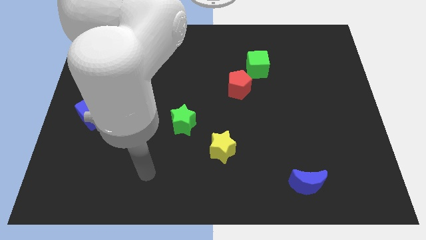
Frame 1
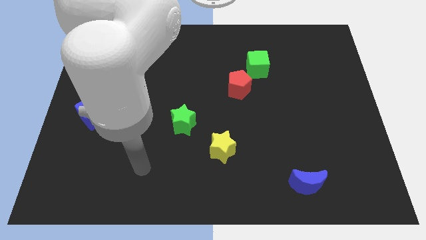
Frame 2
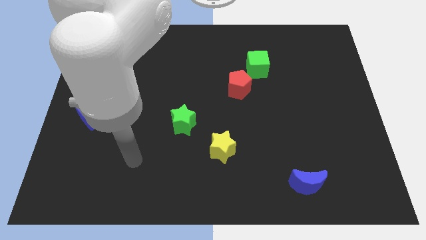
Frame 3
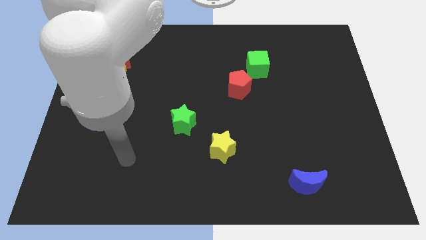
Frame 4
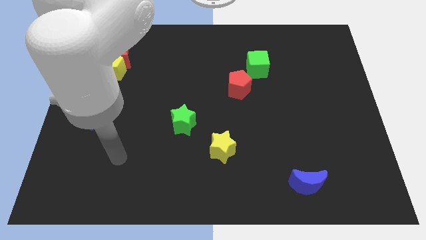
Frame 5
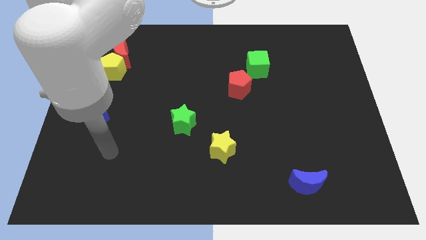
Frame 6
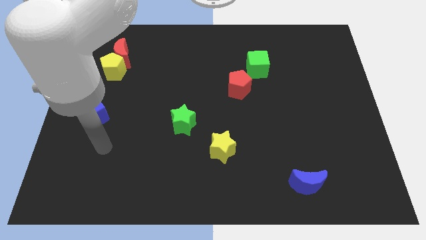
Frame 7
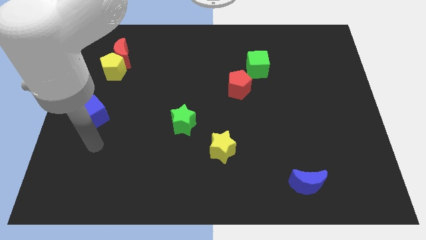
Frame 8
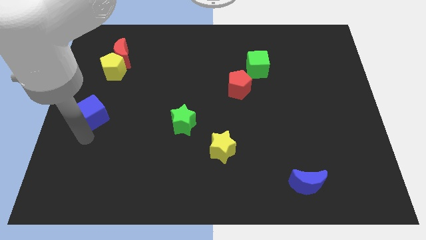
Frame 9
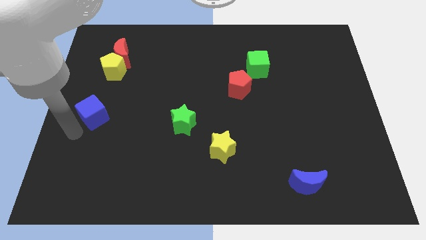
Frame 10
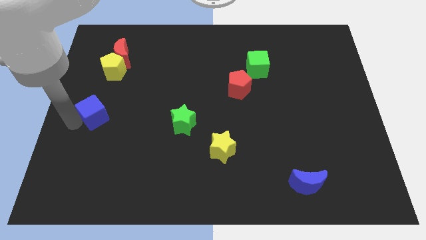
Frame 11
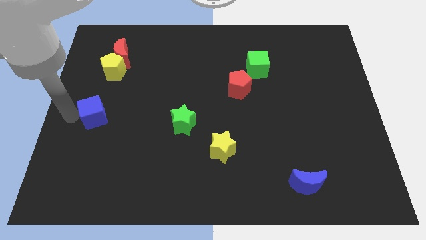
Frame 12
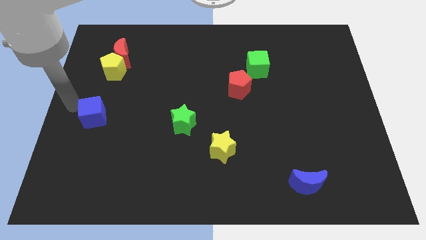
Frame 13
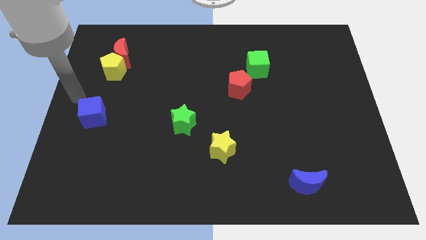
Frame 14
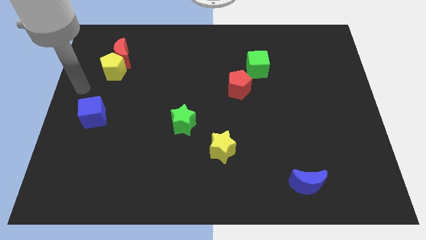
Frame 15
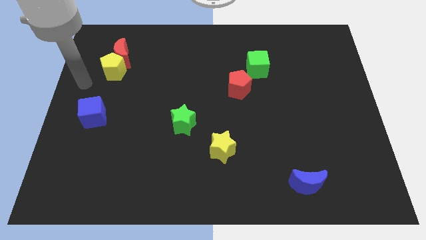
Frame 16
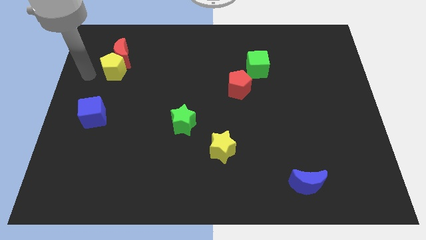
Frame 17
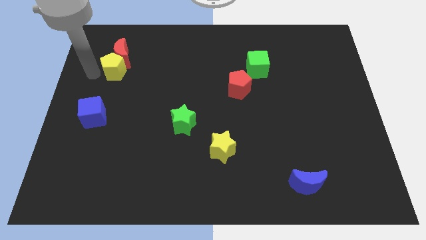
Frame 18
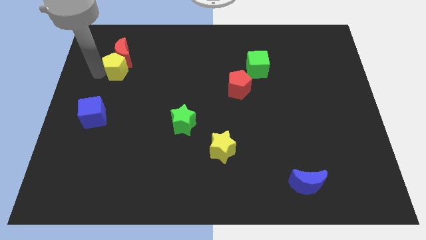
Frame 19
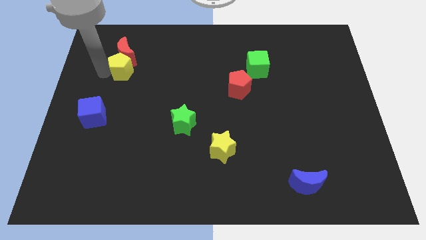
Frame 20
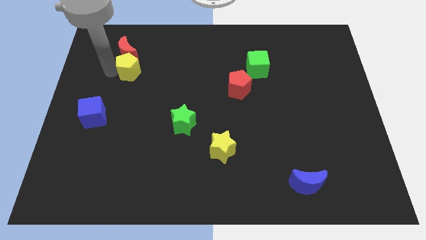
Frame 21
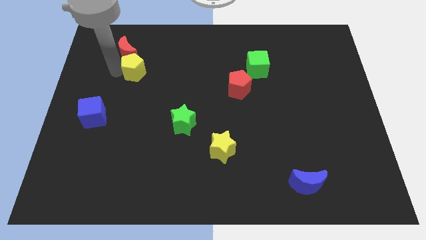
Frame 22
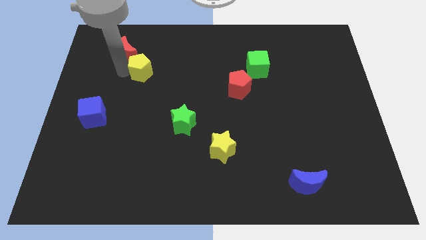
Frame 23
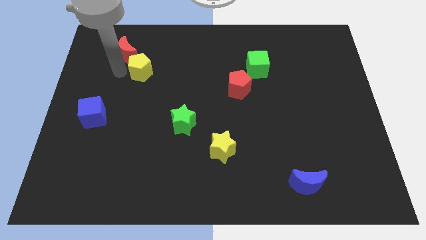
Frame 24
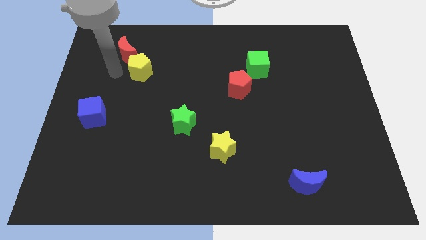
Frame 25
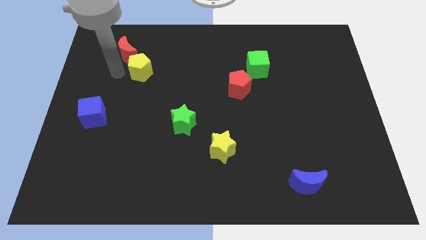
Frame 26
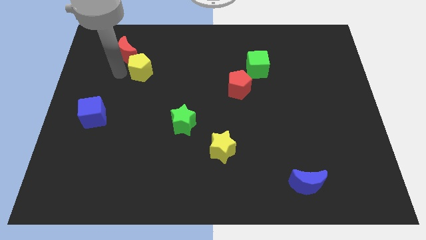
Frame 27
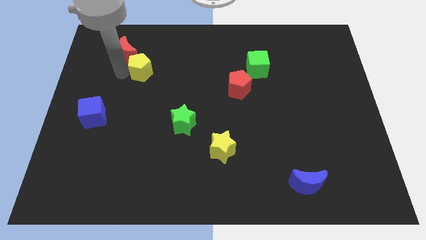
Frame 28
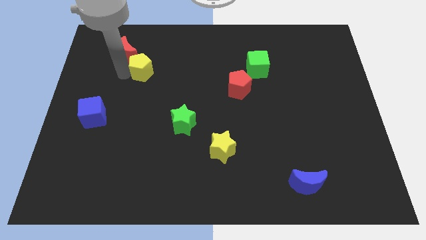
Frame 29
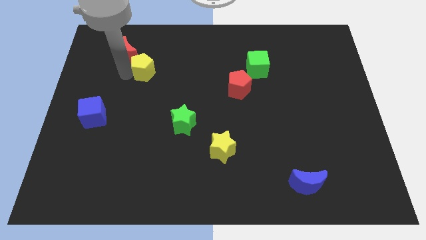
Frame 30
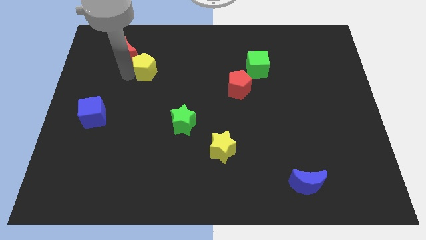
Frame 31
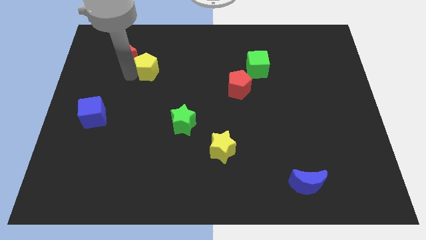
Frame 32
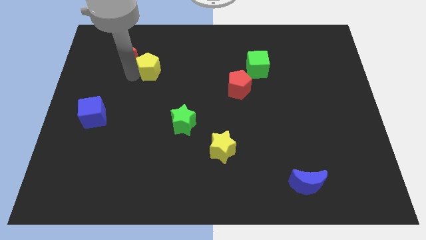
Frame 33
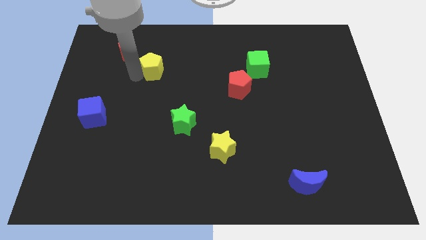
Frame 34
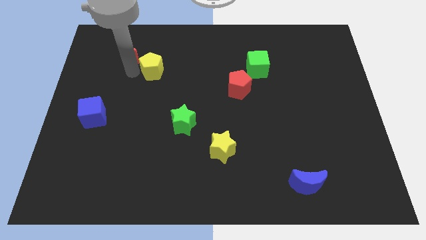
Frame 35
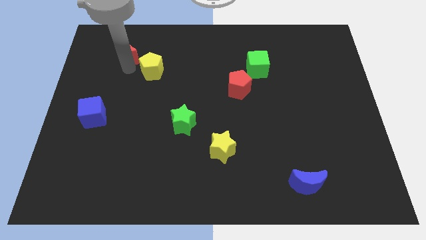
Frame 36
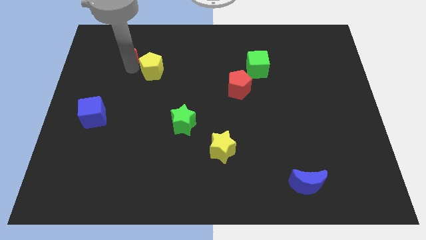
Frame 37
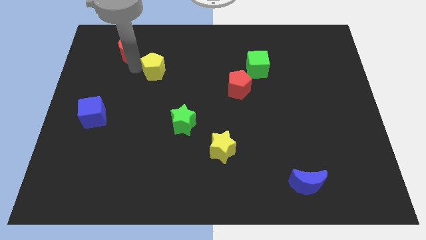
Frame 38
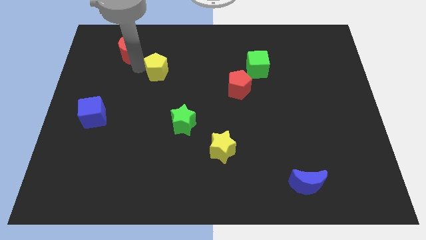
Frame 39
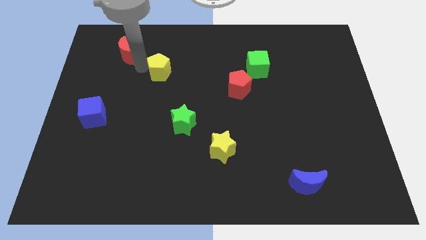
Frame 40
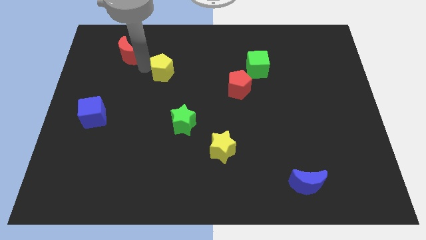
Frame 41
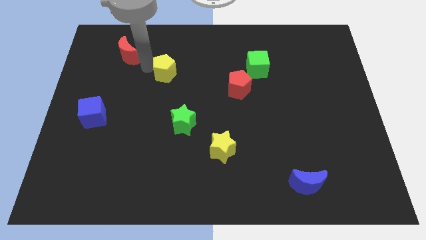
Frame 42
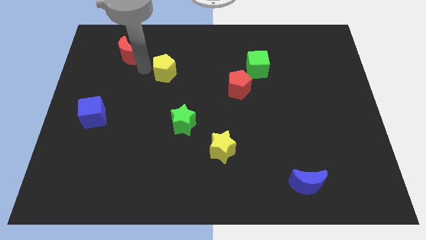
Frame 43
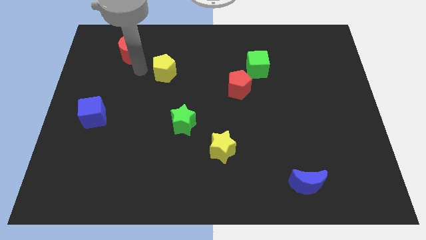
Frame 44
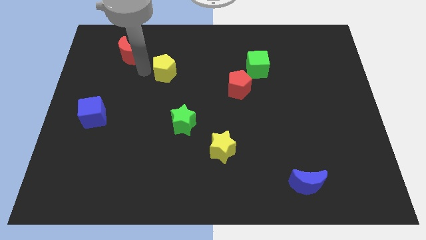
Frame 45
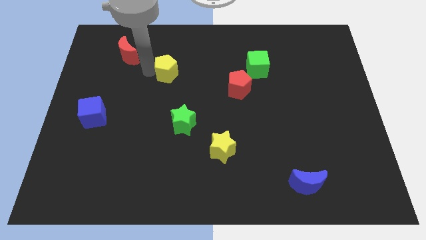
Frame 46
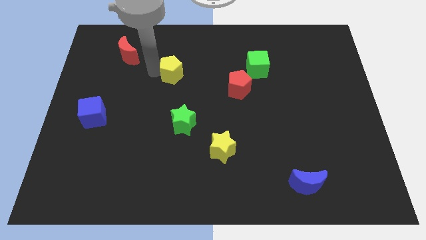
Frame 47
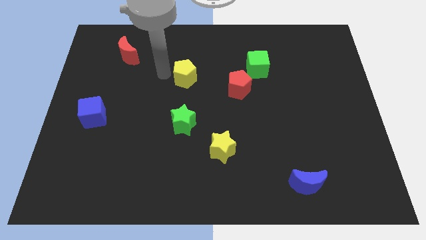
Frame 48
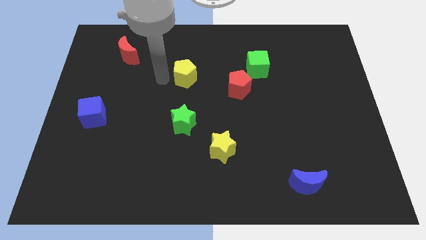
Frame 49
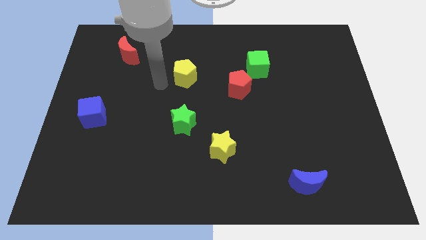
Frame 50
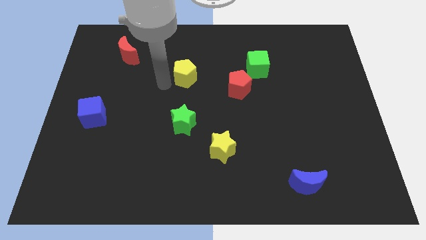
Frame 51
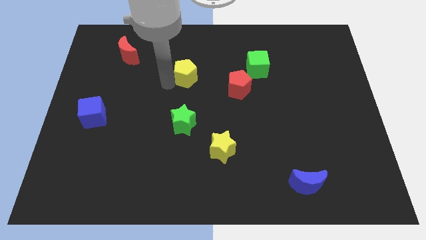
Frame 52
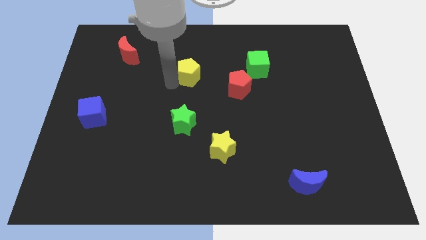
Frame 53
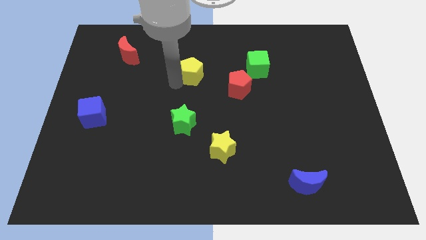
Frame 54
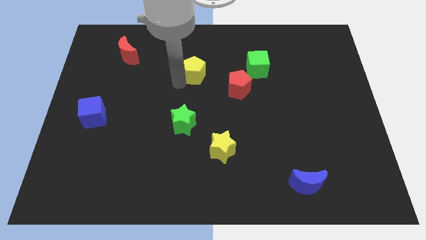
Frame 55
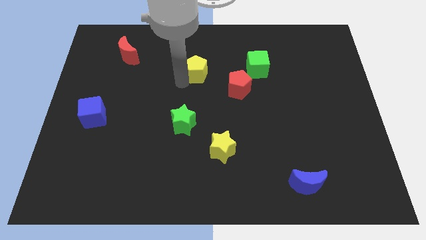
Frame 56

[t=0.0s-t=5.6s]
push the yellow pentagon to the left side of the green cube

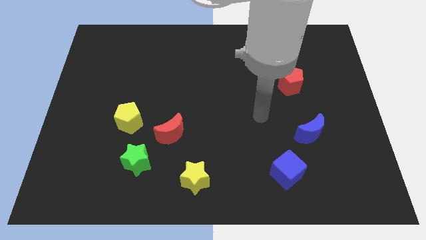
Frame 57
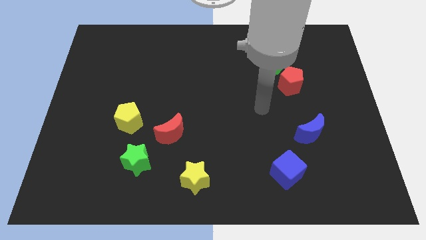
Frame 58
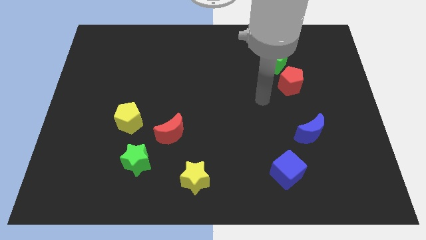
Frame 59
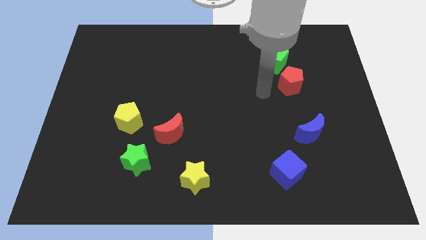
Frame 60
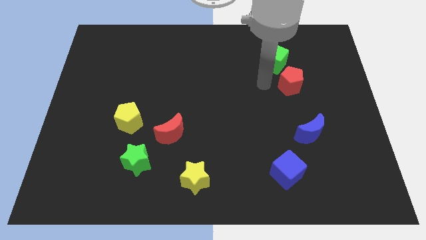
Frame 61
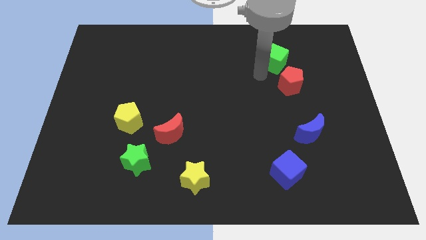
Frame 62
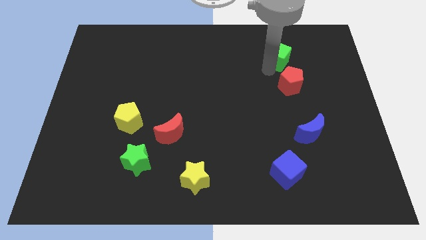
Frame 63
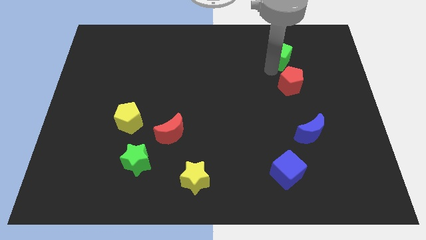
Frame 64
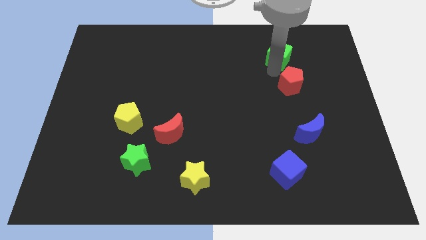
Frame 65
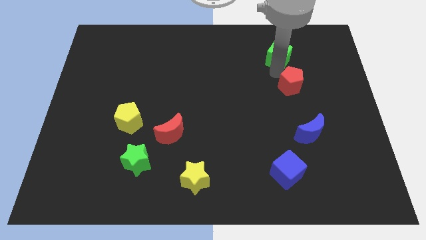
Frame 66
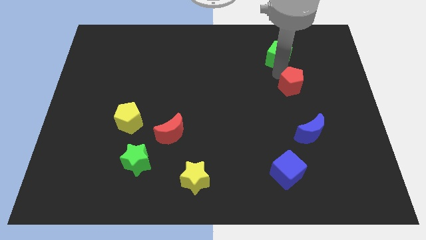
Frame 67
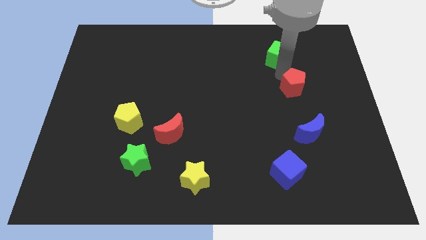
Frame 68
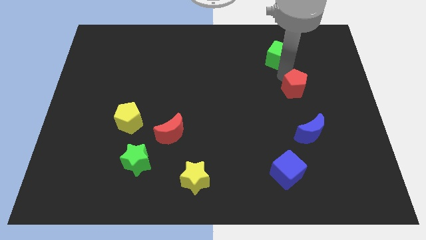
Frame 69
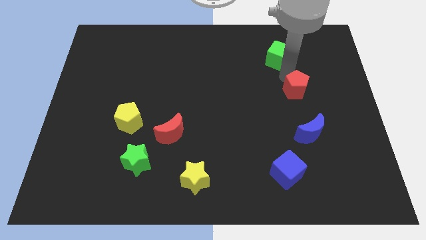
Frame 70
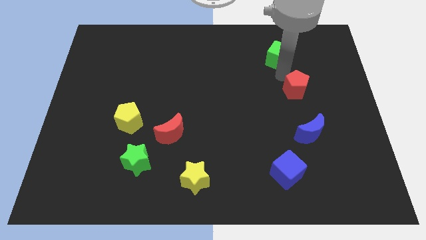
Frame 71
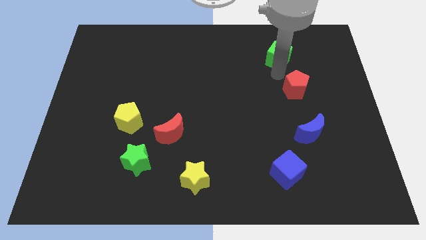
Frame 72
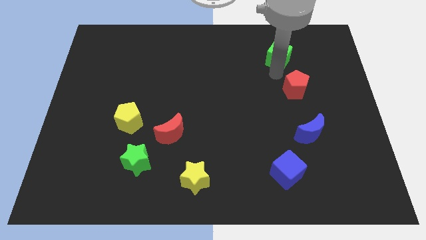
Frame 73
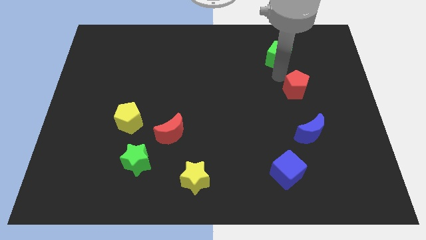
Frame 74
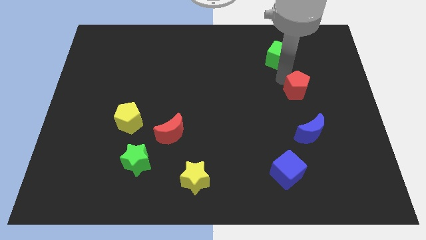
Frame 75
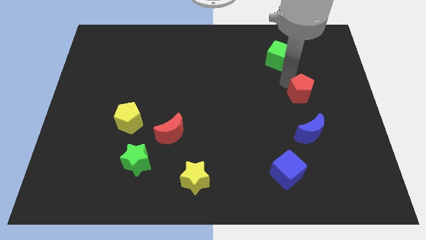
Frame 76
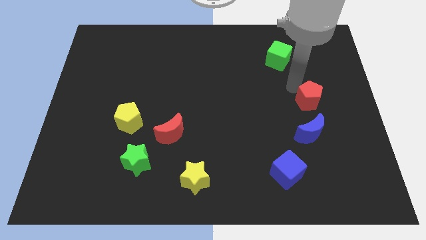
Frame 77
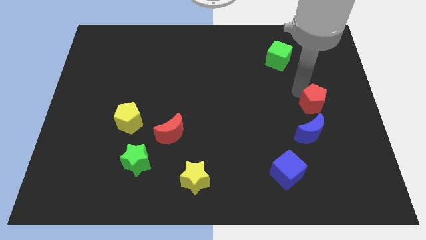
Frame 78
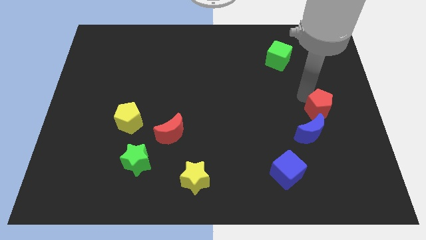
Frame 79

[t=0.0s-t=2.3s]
slide the red pentagon to the top right side of the blue moon
